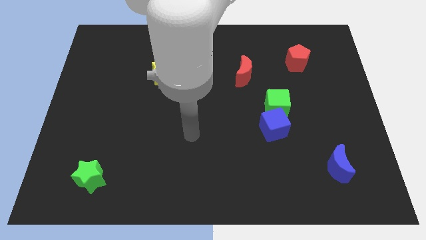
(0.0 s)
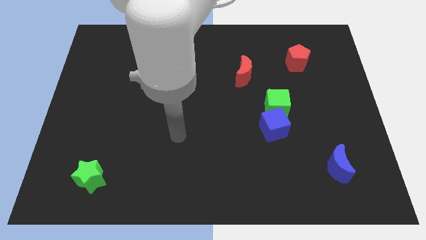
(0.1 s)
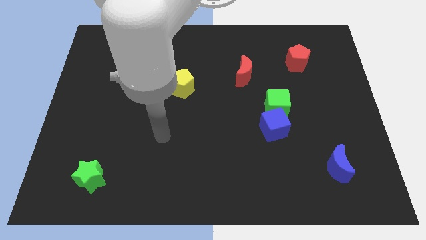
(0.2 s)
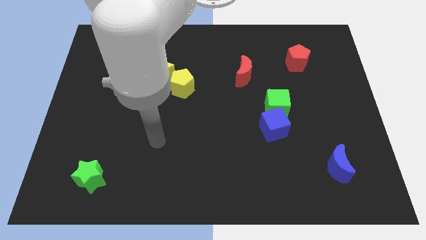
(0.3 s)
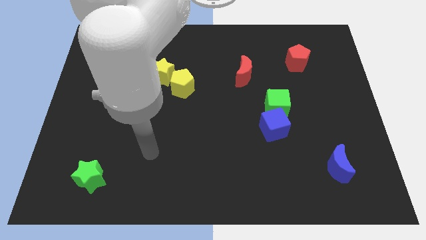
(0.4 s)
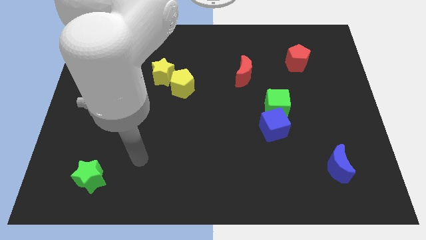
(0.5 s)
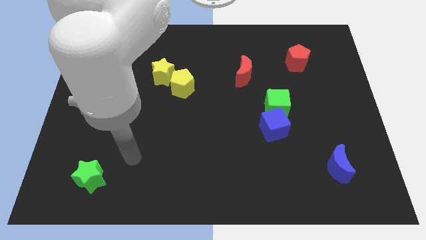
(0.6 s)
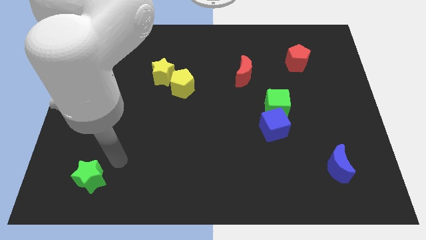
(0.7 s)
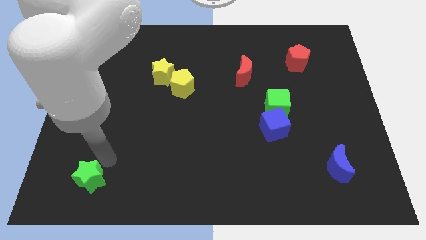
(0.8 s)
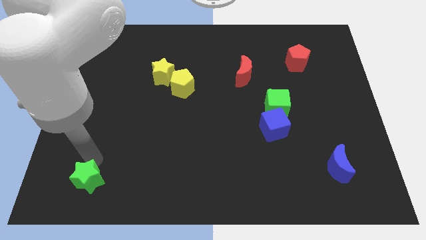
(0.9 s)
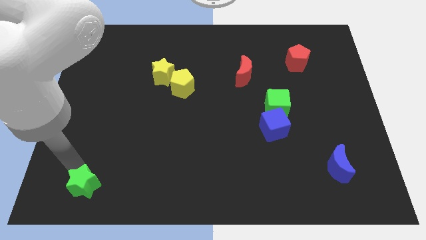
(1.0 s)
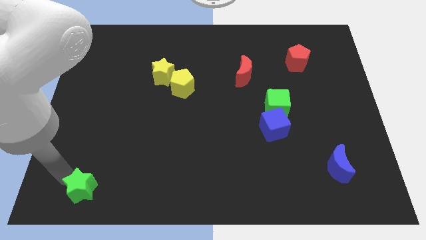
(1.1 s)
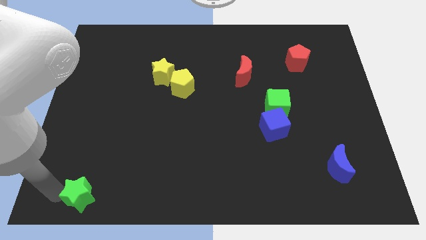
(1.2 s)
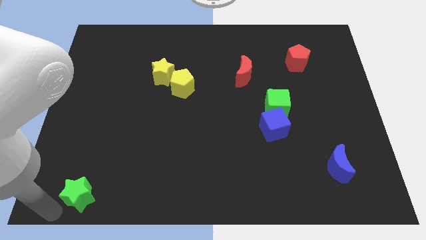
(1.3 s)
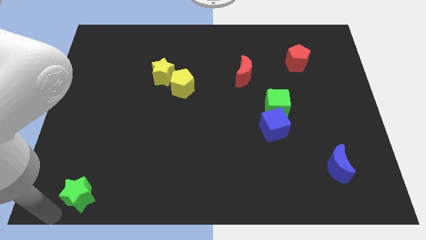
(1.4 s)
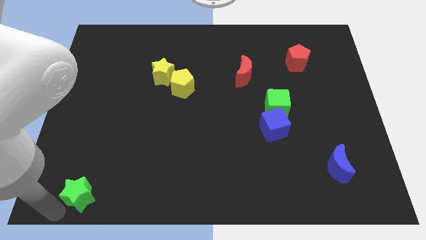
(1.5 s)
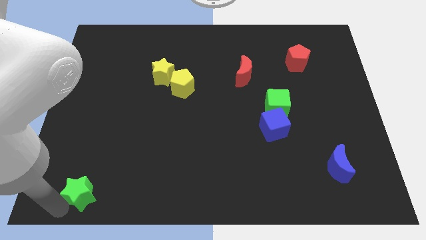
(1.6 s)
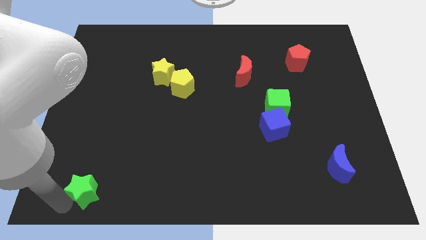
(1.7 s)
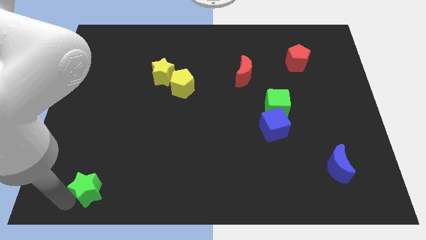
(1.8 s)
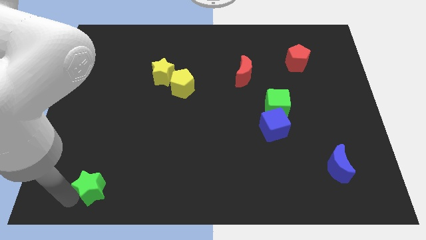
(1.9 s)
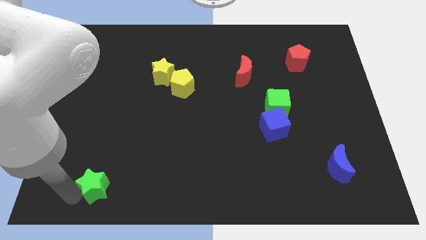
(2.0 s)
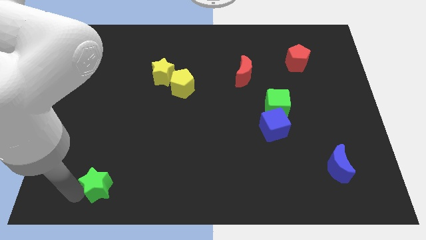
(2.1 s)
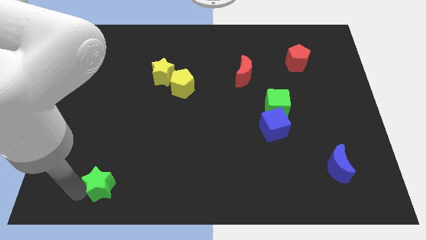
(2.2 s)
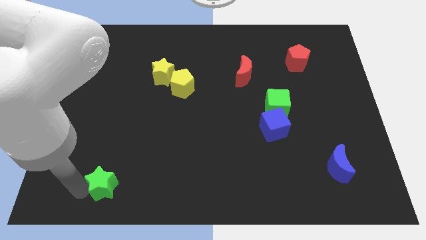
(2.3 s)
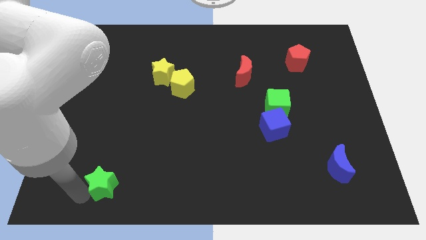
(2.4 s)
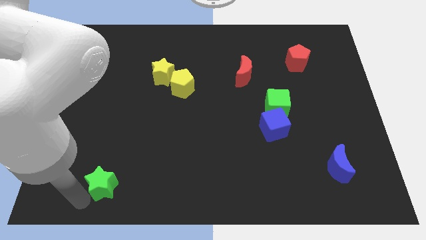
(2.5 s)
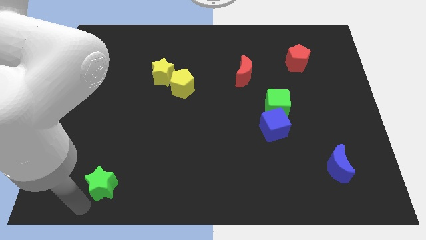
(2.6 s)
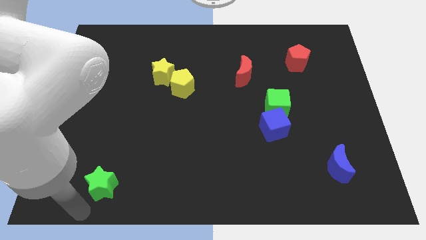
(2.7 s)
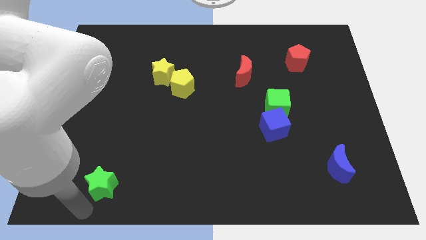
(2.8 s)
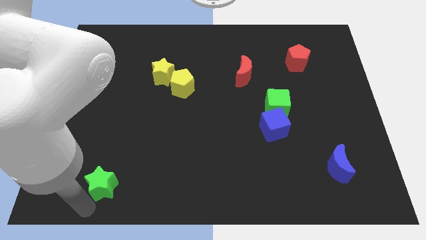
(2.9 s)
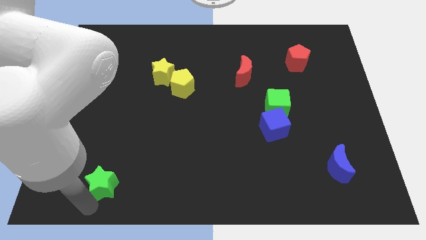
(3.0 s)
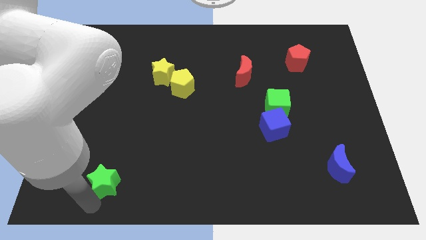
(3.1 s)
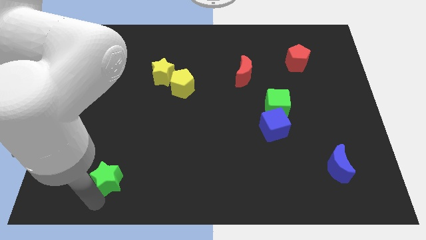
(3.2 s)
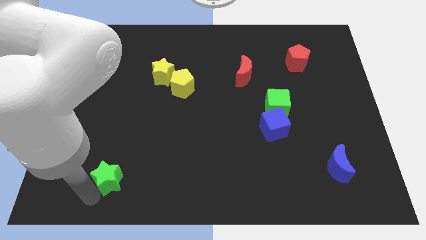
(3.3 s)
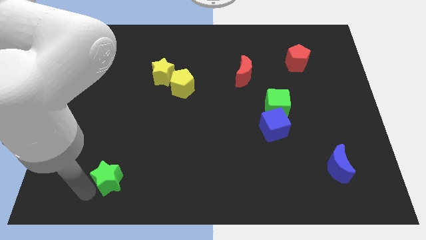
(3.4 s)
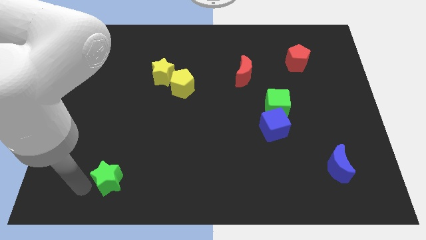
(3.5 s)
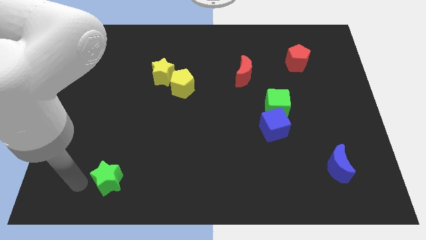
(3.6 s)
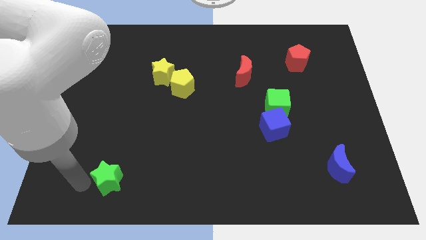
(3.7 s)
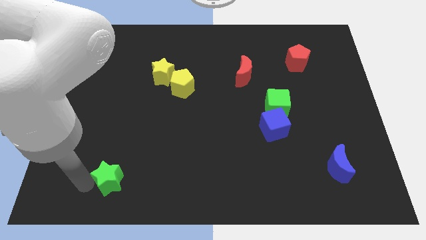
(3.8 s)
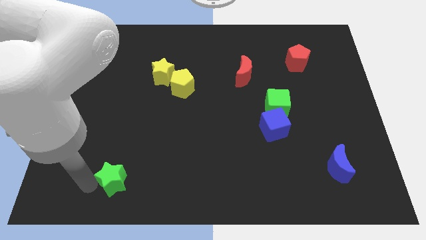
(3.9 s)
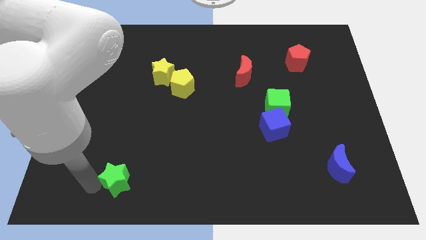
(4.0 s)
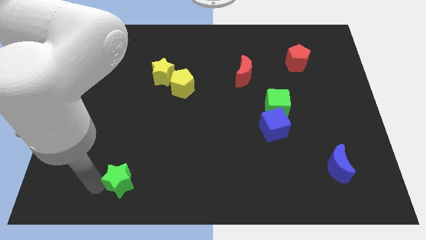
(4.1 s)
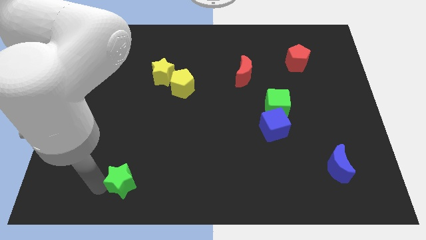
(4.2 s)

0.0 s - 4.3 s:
slightly slide the green star right

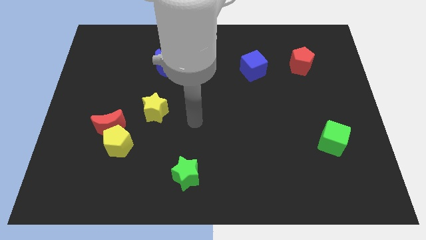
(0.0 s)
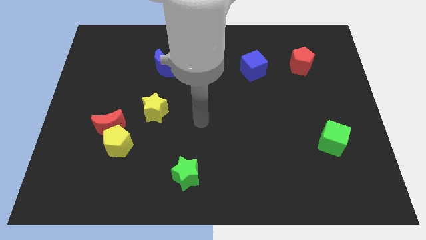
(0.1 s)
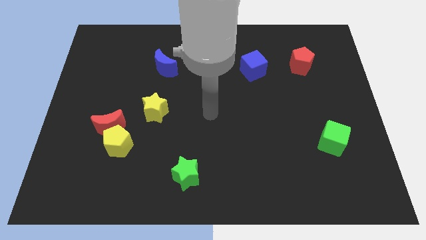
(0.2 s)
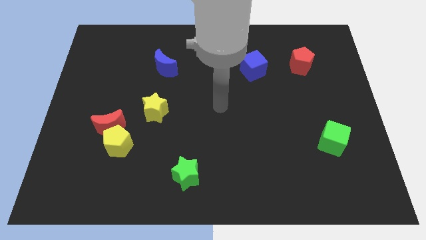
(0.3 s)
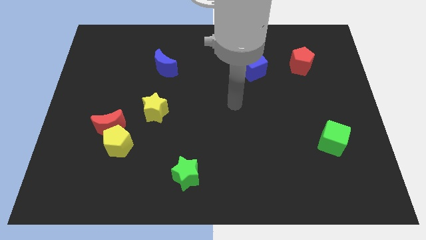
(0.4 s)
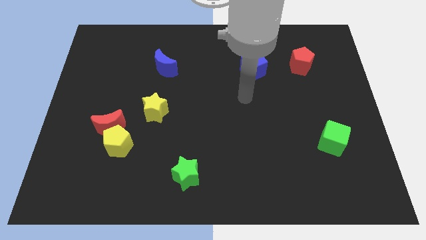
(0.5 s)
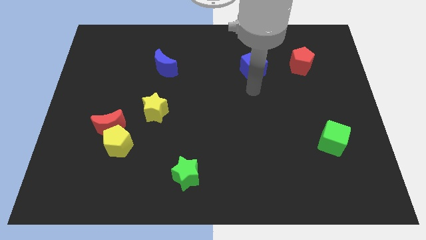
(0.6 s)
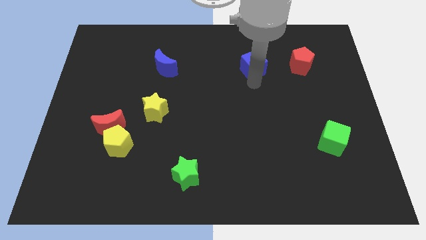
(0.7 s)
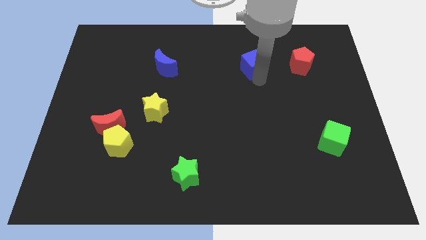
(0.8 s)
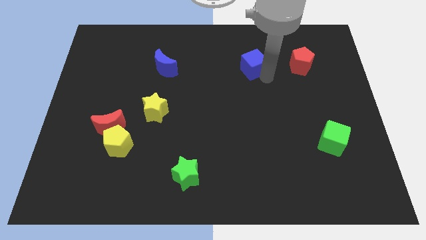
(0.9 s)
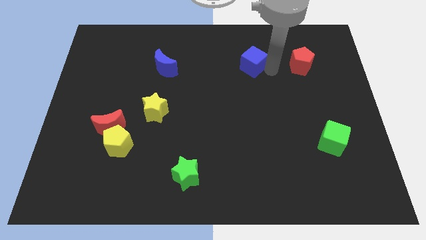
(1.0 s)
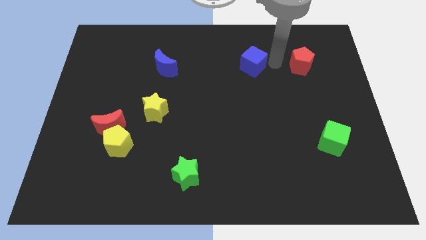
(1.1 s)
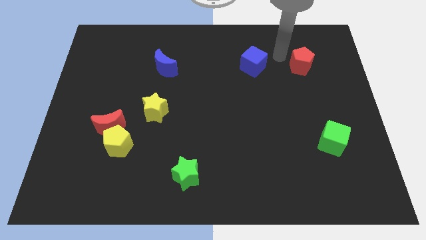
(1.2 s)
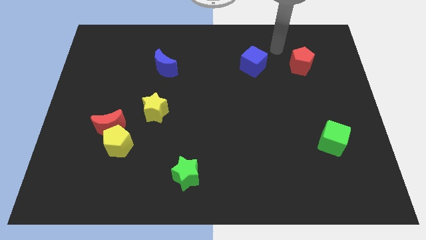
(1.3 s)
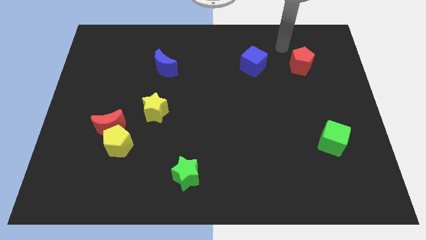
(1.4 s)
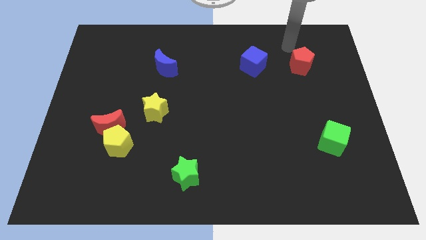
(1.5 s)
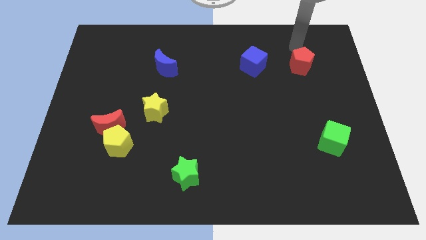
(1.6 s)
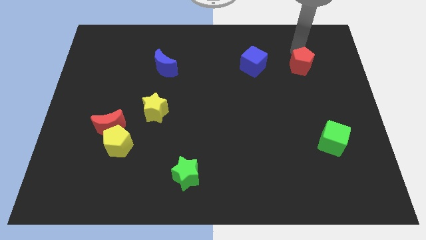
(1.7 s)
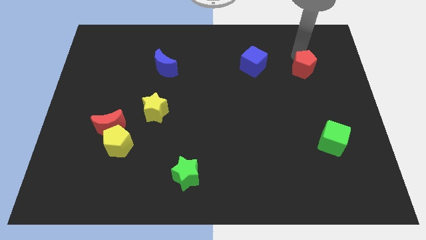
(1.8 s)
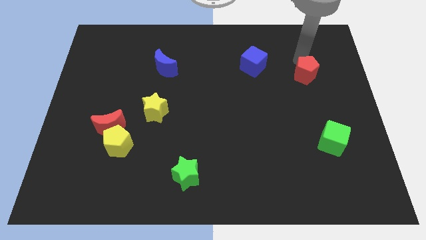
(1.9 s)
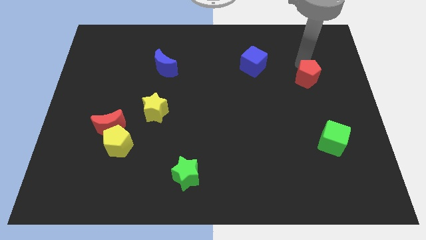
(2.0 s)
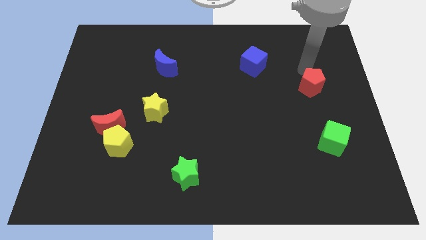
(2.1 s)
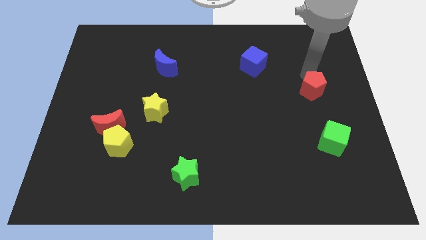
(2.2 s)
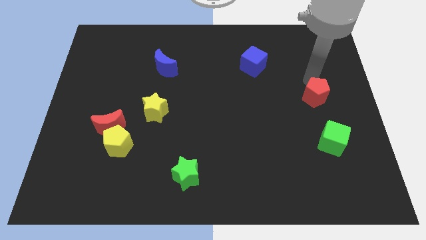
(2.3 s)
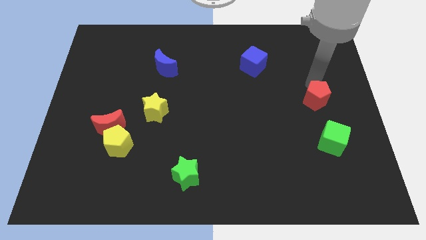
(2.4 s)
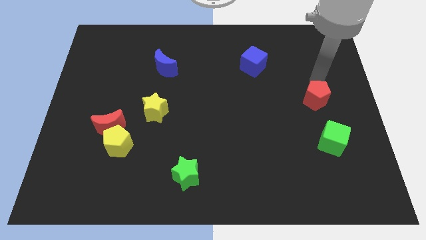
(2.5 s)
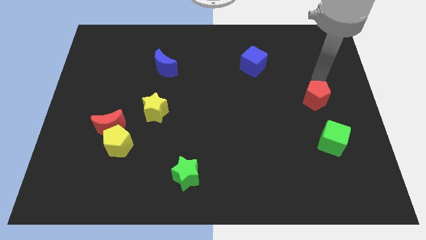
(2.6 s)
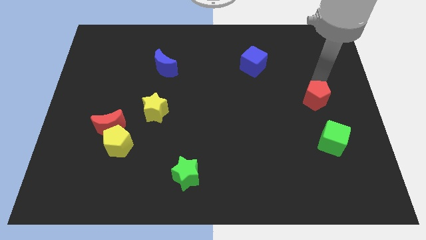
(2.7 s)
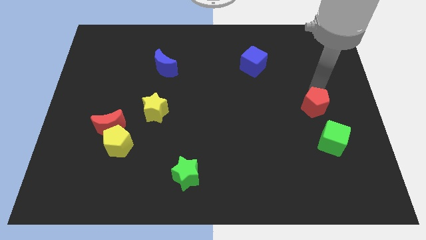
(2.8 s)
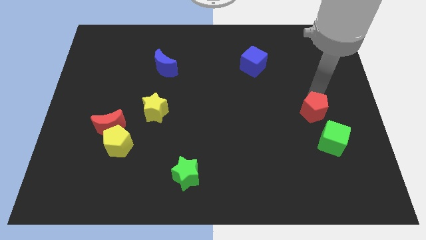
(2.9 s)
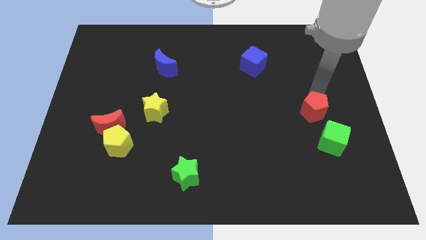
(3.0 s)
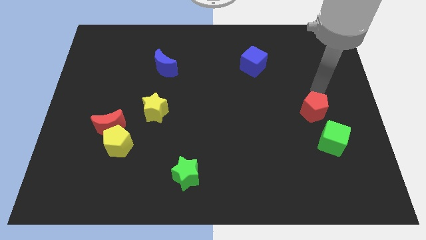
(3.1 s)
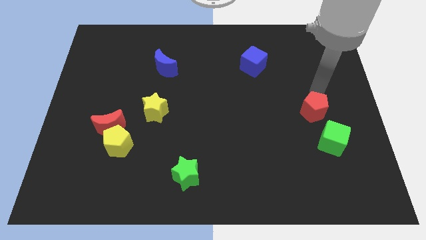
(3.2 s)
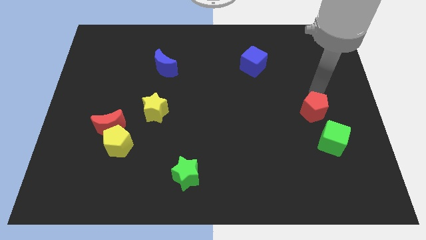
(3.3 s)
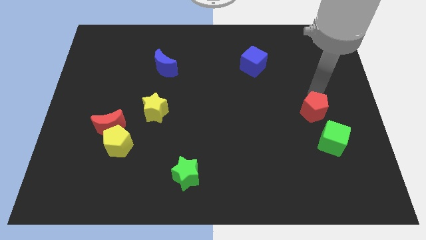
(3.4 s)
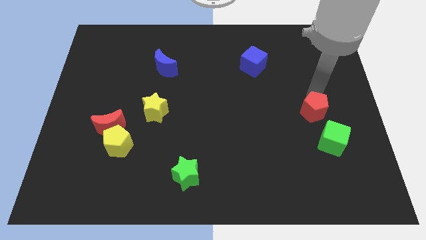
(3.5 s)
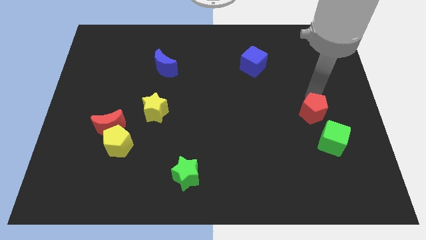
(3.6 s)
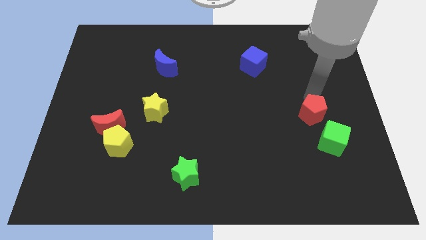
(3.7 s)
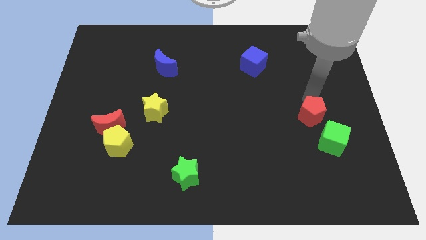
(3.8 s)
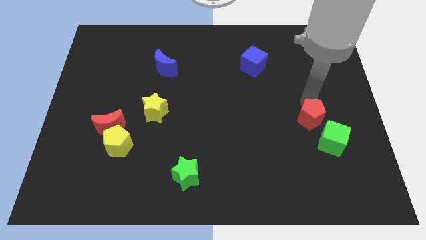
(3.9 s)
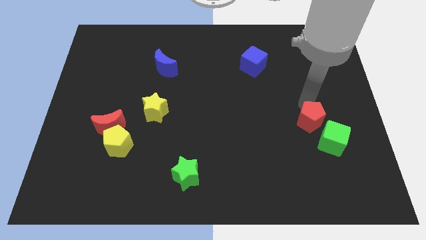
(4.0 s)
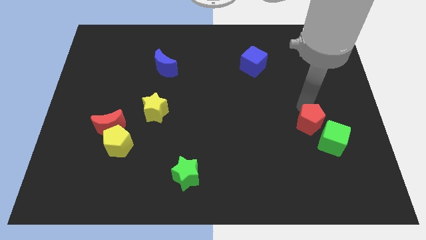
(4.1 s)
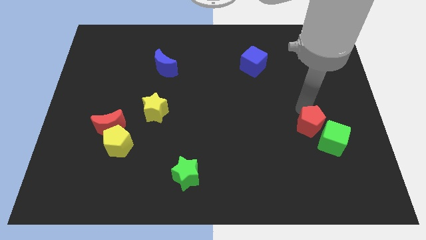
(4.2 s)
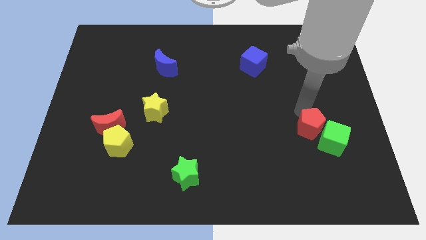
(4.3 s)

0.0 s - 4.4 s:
slide the red pentagon downwards
